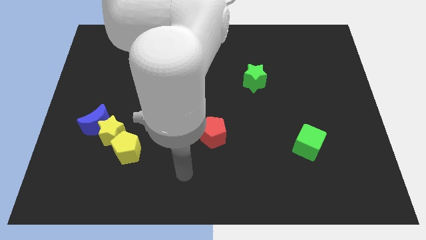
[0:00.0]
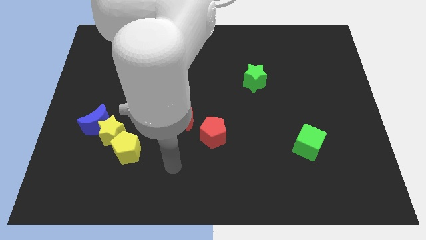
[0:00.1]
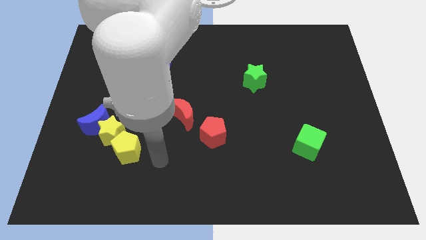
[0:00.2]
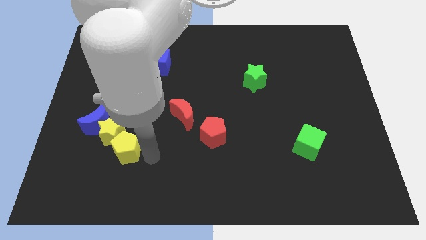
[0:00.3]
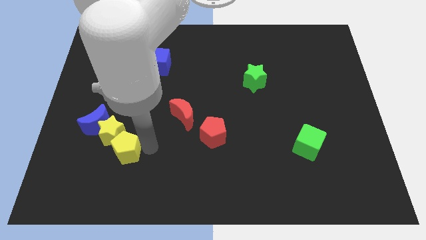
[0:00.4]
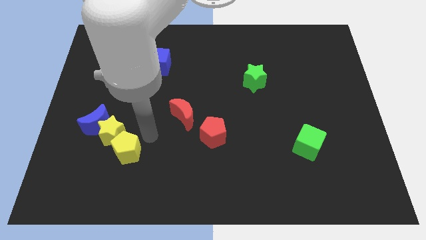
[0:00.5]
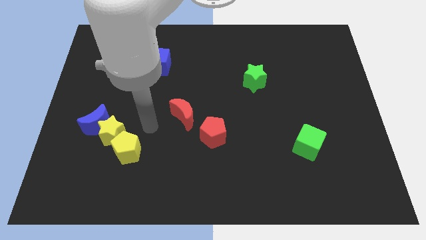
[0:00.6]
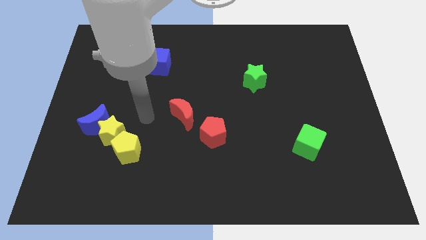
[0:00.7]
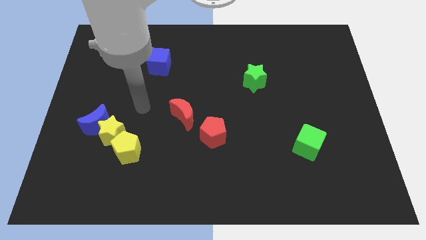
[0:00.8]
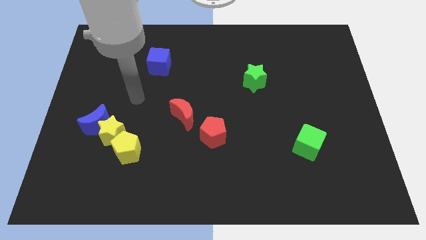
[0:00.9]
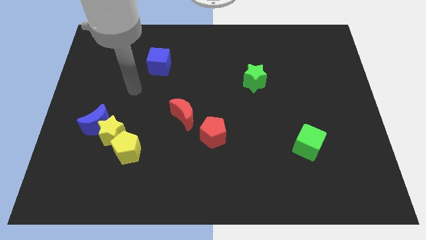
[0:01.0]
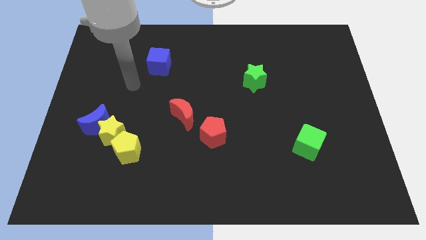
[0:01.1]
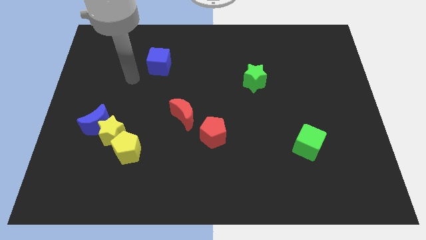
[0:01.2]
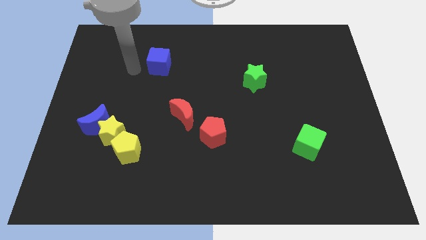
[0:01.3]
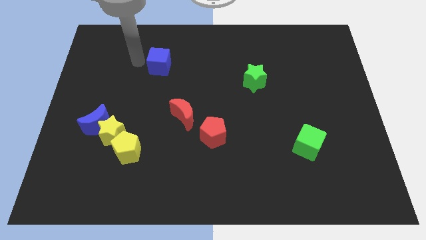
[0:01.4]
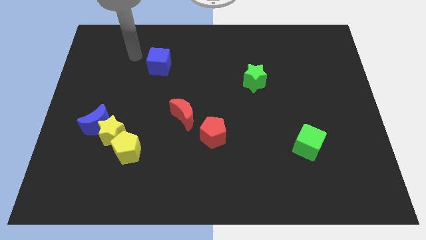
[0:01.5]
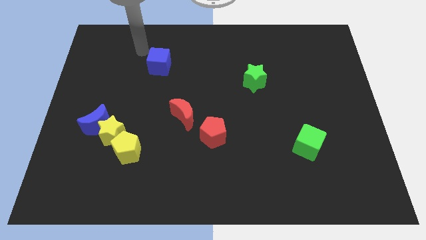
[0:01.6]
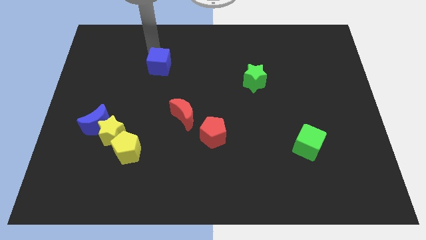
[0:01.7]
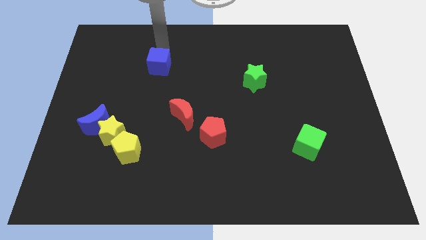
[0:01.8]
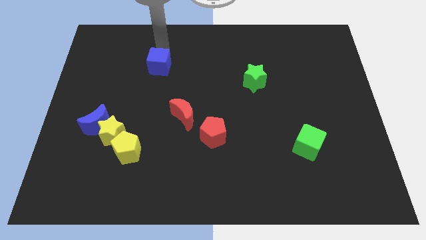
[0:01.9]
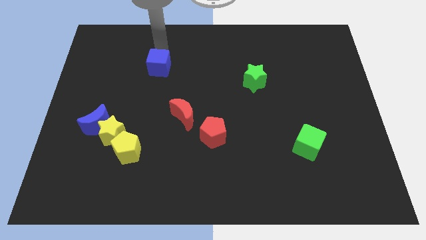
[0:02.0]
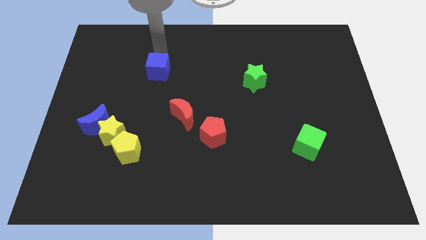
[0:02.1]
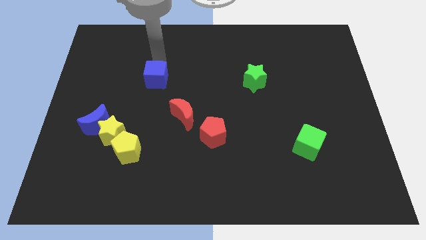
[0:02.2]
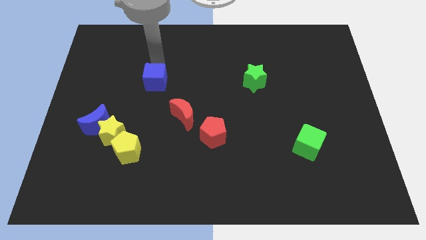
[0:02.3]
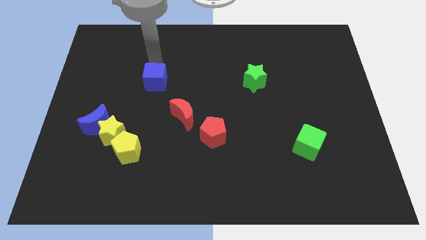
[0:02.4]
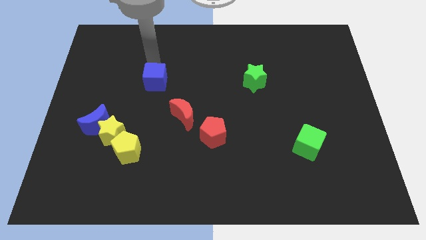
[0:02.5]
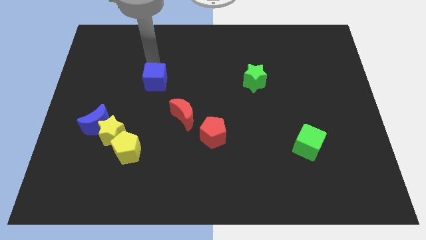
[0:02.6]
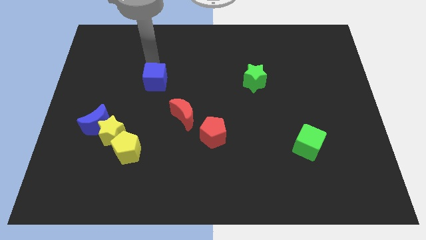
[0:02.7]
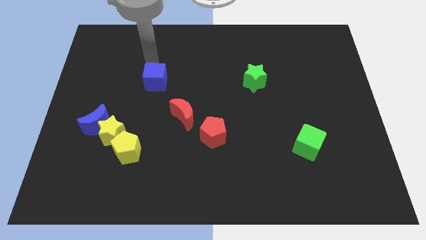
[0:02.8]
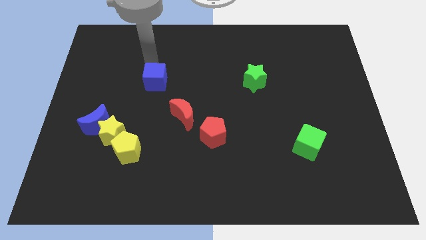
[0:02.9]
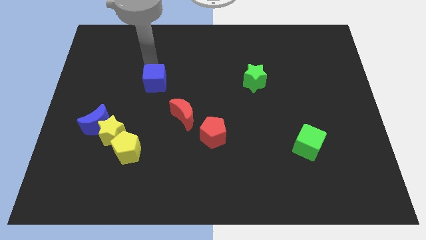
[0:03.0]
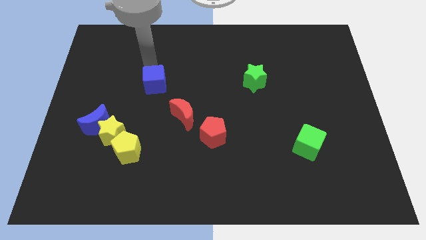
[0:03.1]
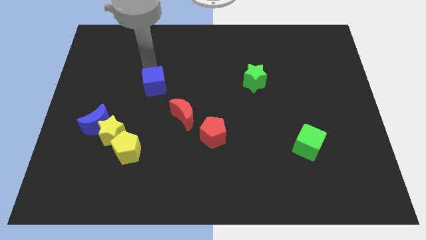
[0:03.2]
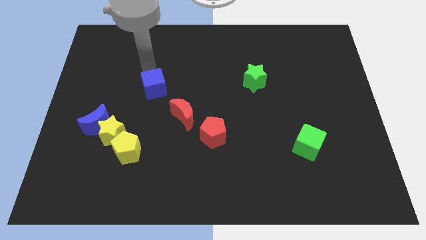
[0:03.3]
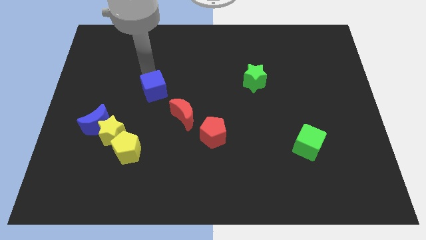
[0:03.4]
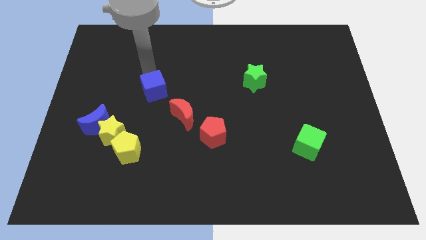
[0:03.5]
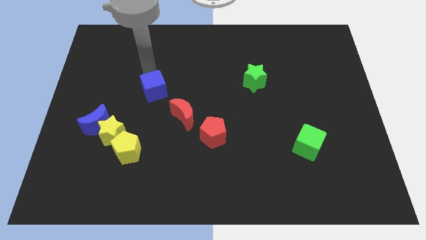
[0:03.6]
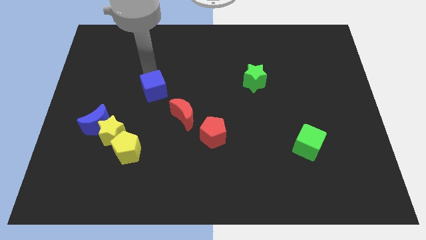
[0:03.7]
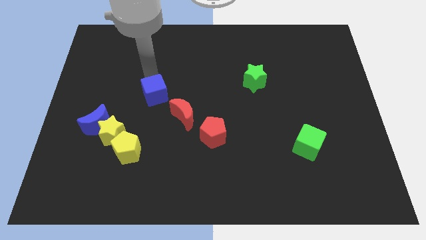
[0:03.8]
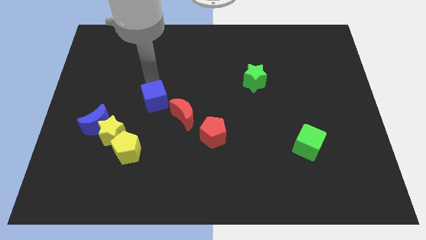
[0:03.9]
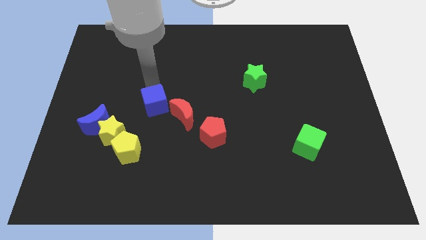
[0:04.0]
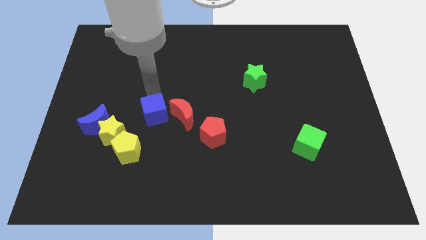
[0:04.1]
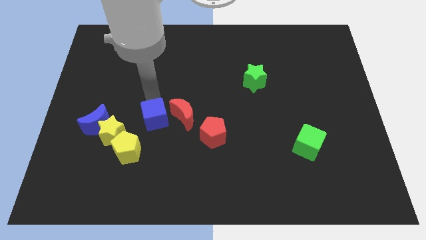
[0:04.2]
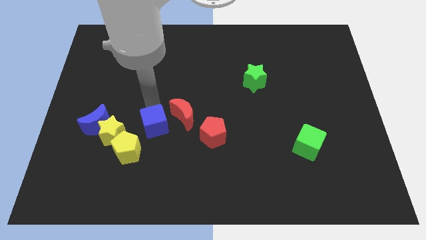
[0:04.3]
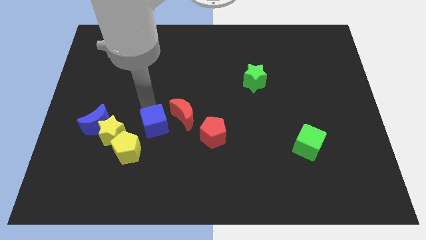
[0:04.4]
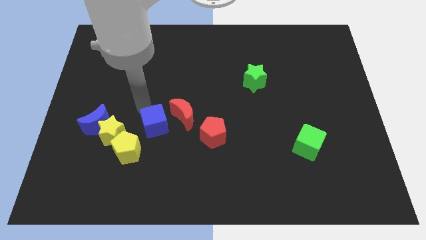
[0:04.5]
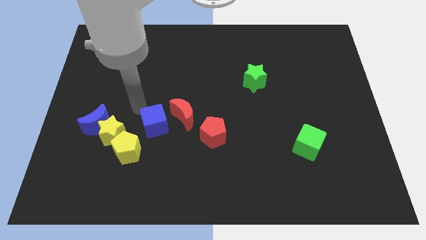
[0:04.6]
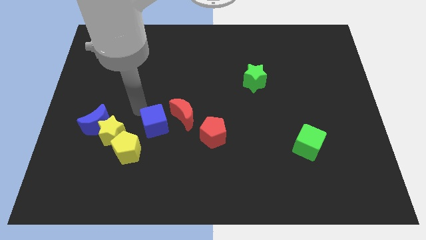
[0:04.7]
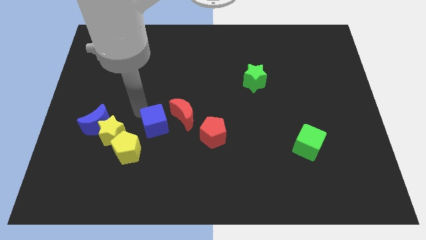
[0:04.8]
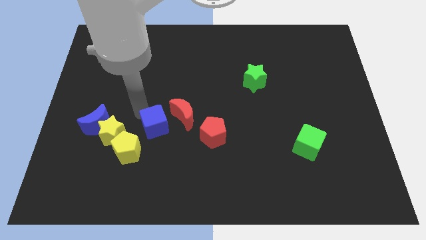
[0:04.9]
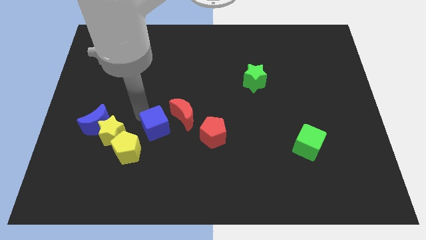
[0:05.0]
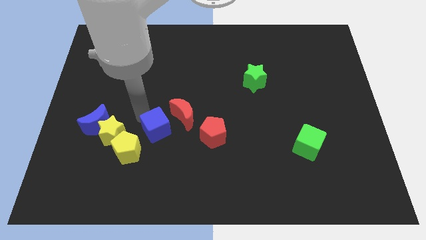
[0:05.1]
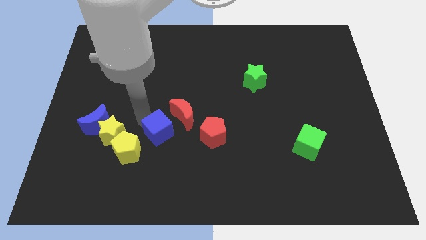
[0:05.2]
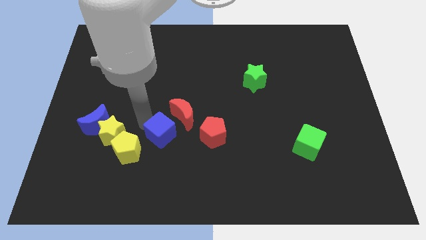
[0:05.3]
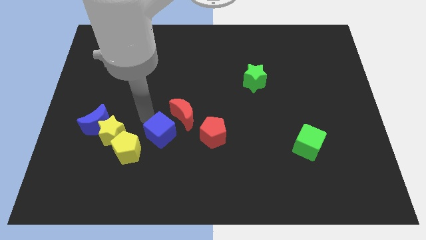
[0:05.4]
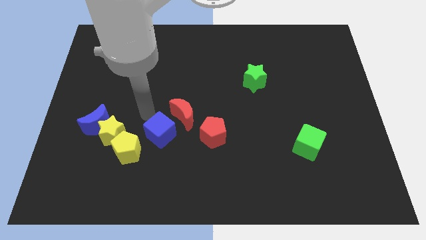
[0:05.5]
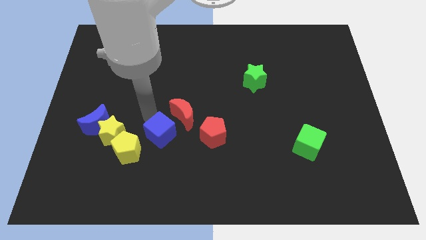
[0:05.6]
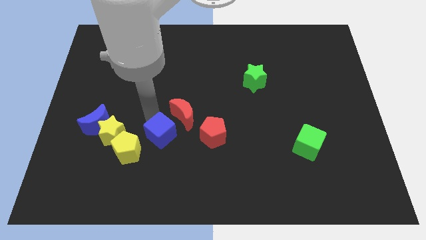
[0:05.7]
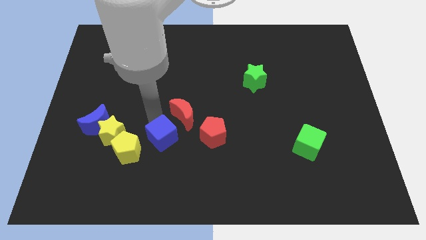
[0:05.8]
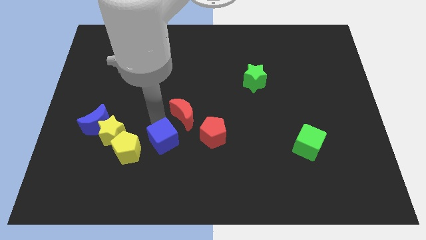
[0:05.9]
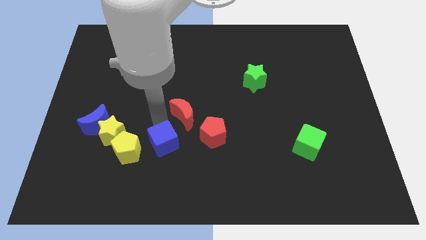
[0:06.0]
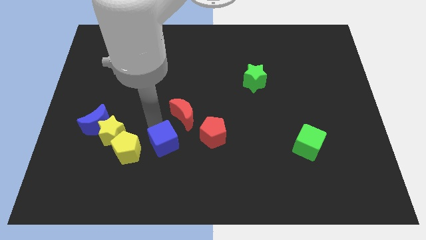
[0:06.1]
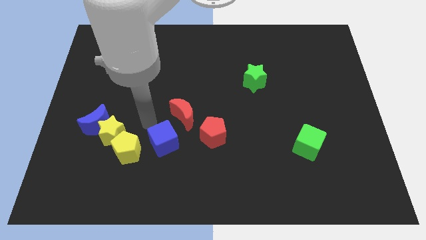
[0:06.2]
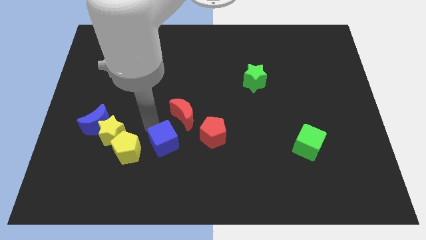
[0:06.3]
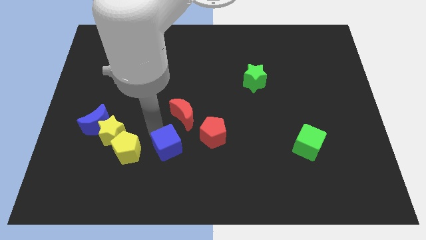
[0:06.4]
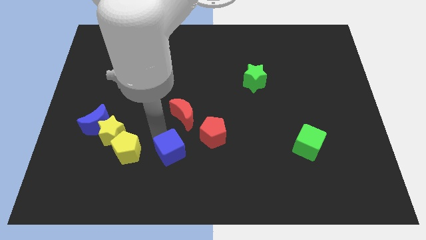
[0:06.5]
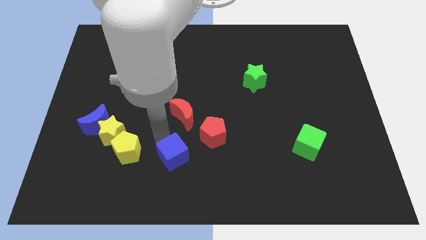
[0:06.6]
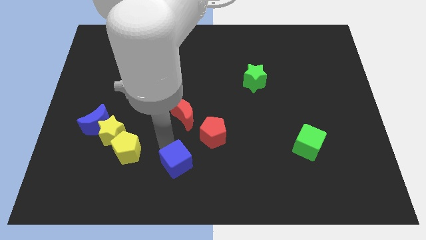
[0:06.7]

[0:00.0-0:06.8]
move the blue cube to the bottom
